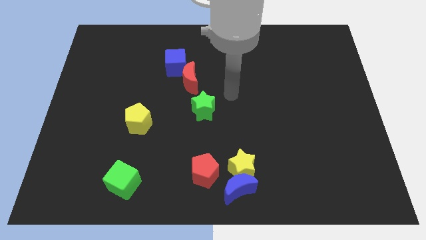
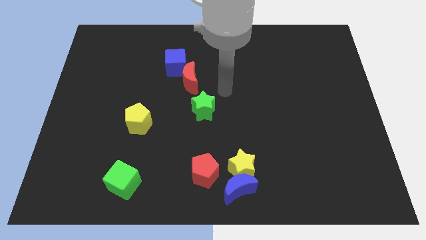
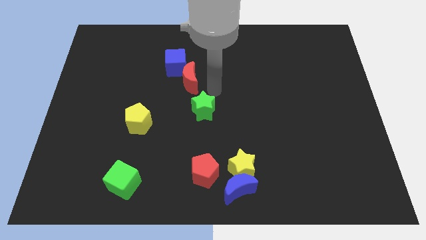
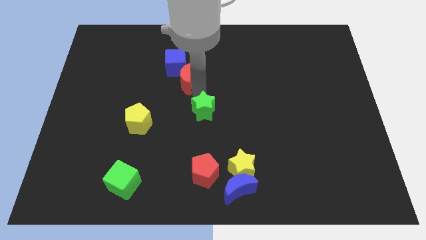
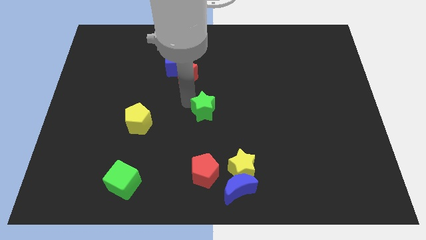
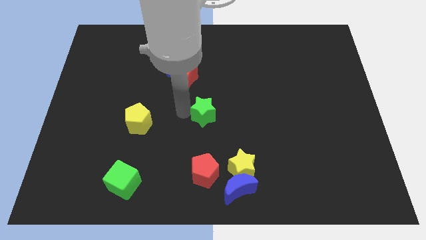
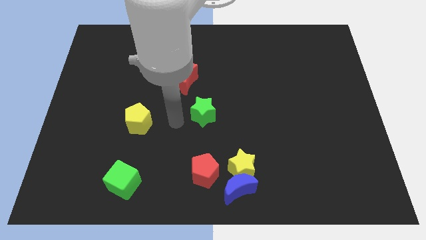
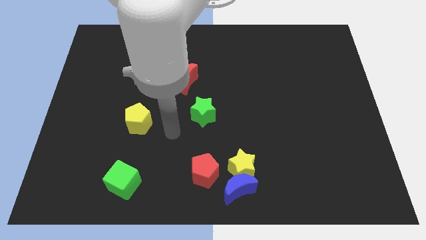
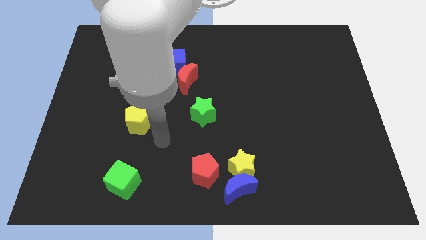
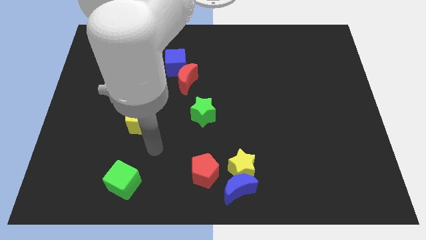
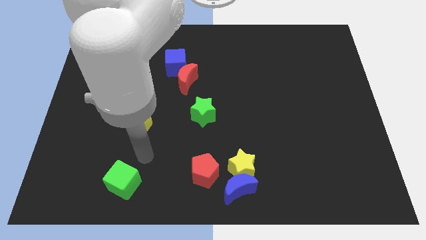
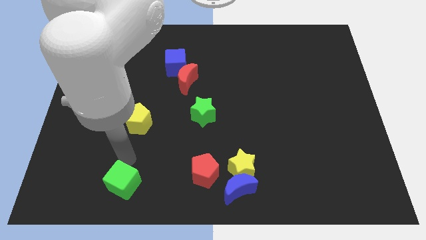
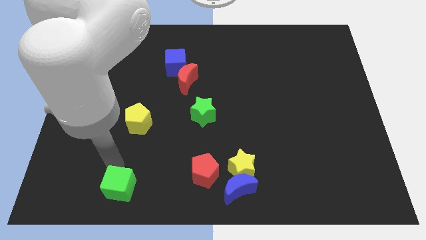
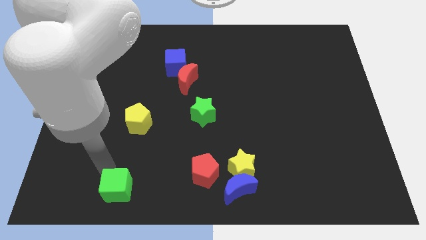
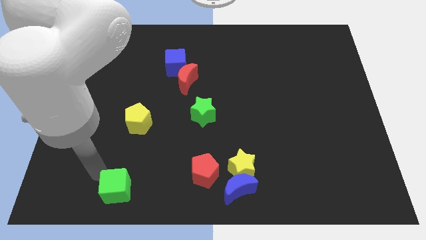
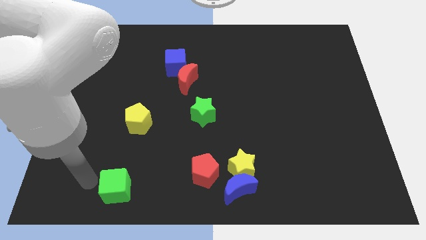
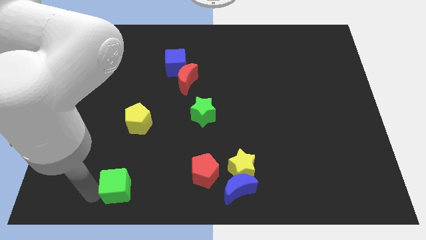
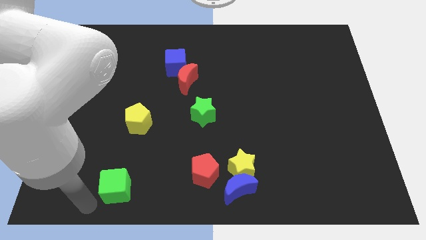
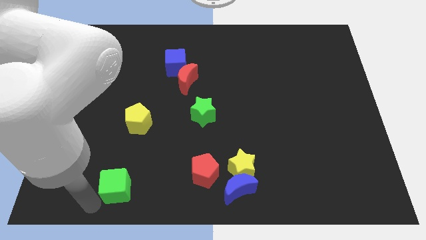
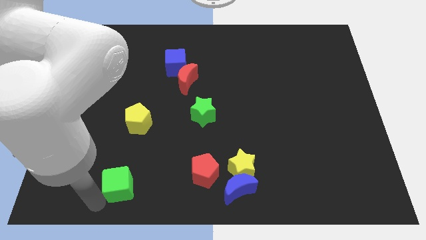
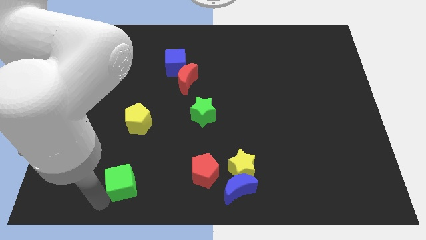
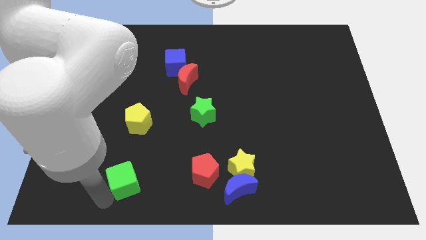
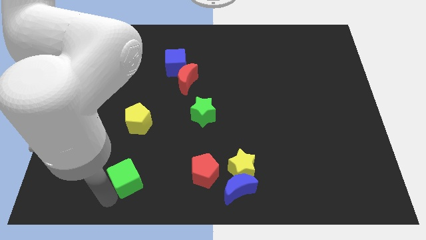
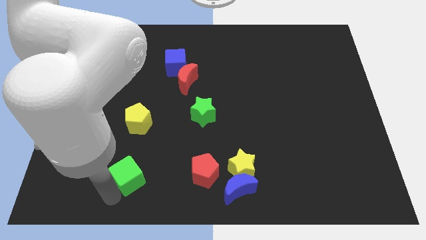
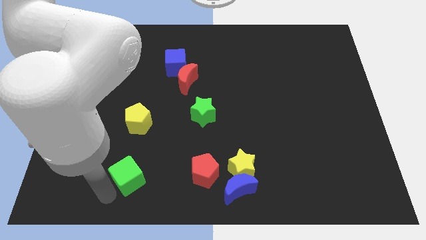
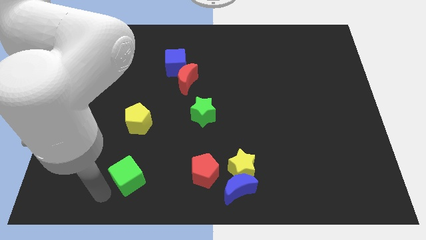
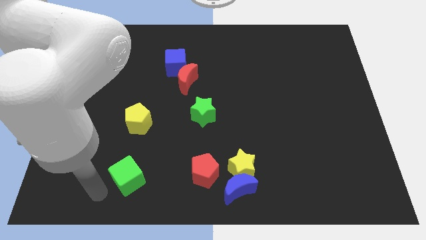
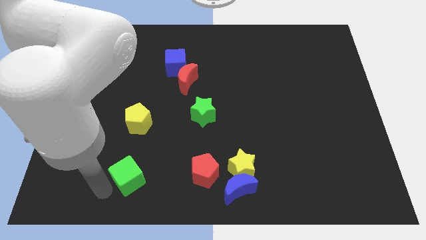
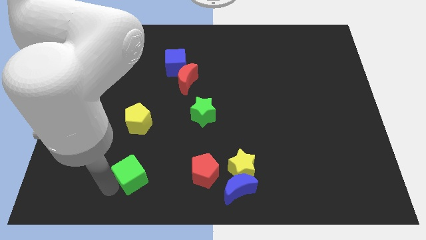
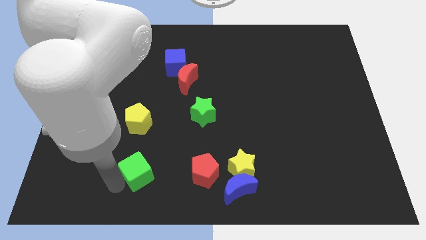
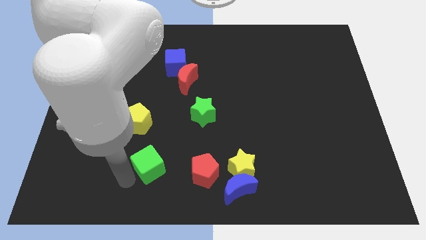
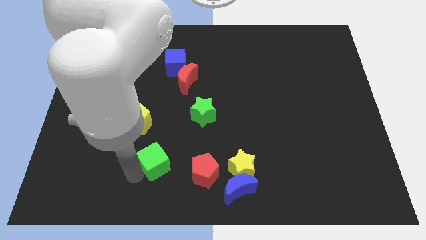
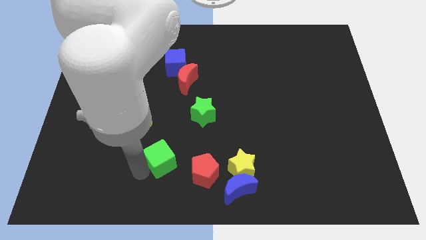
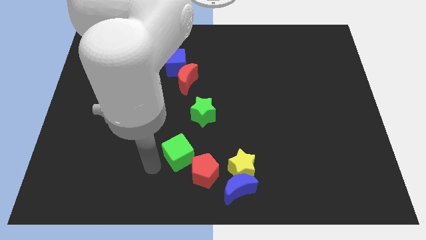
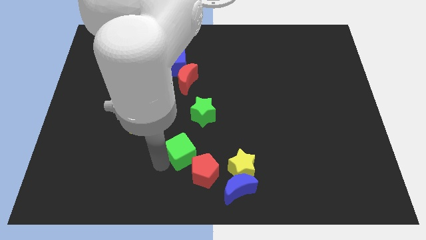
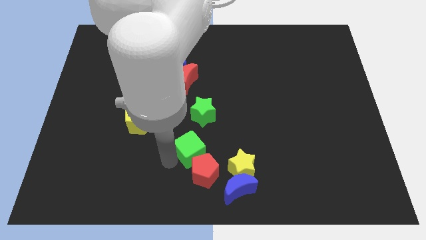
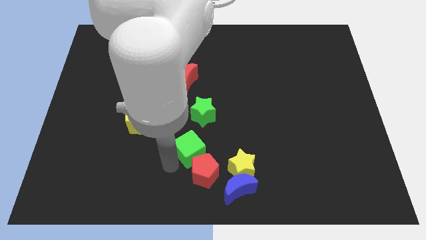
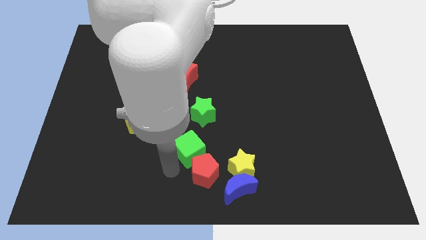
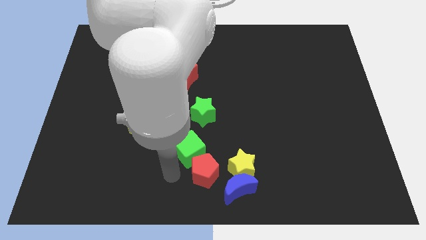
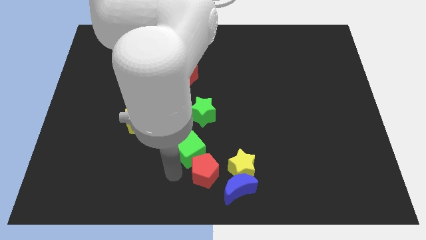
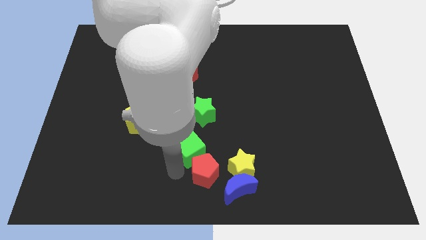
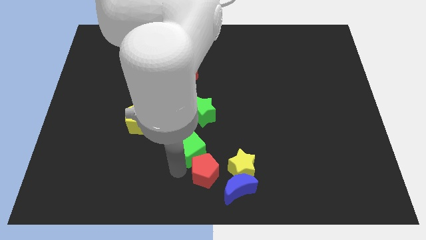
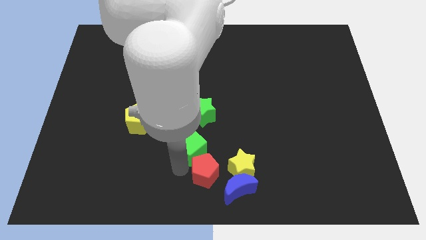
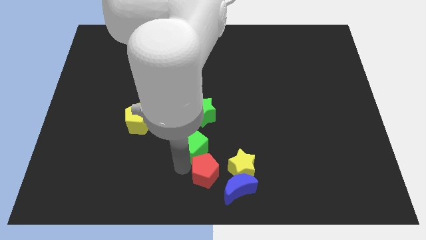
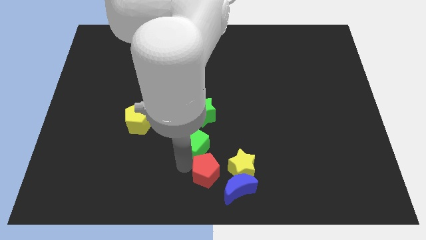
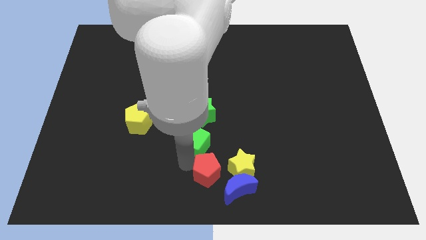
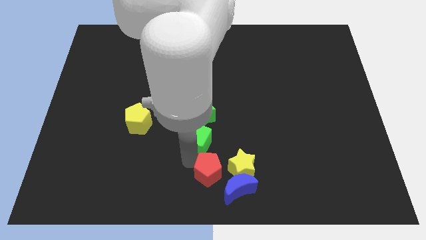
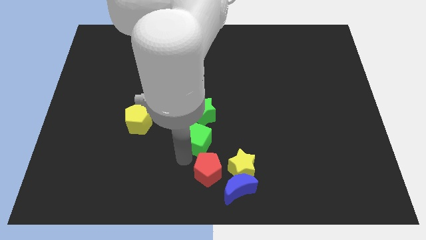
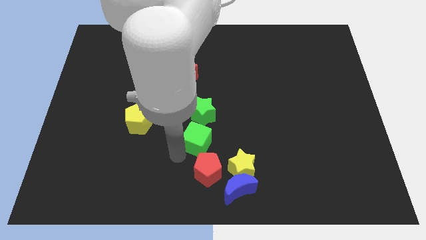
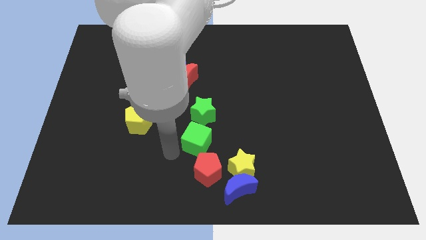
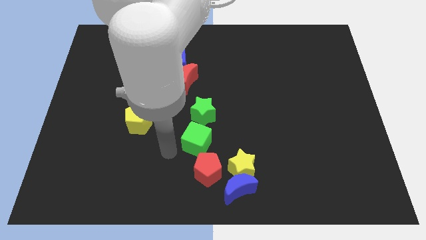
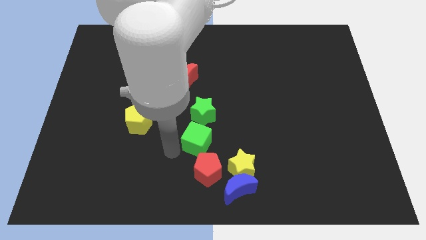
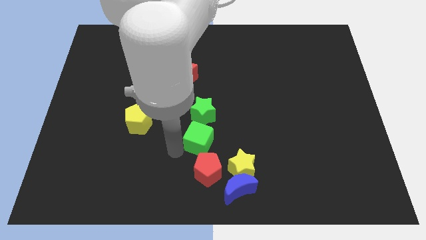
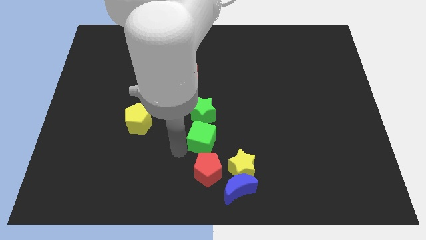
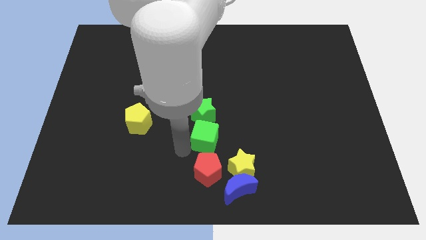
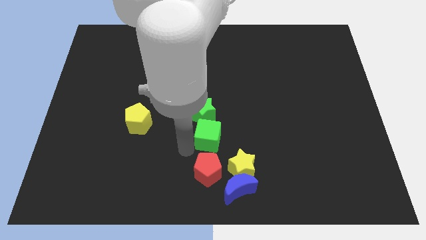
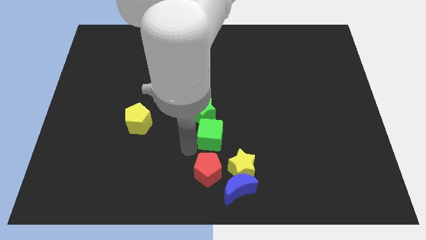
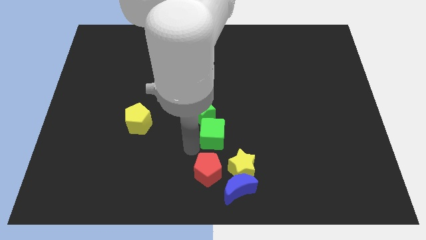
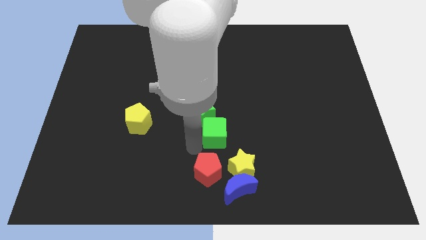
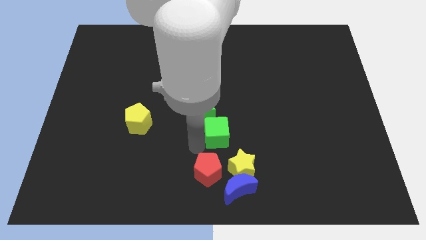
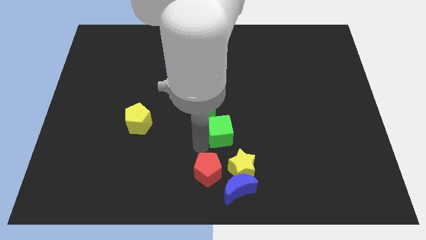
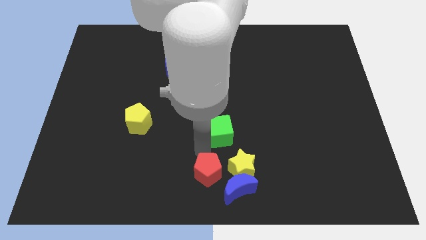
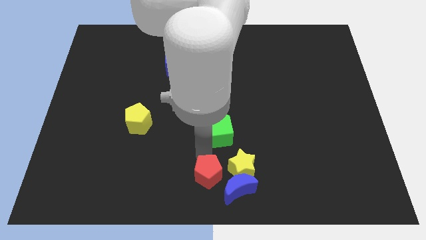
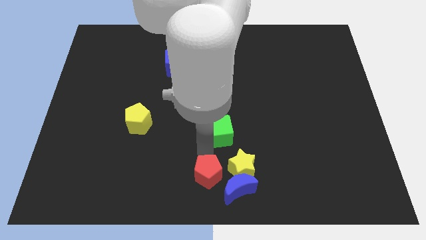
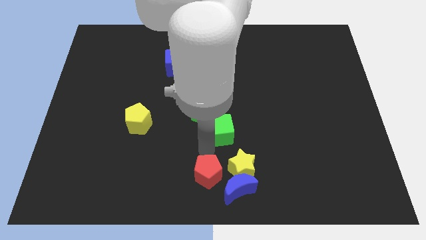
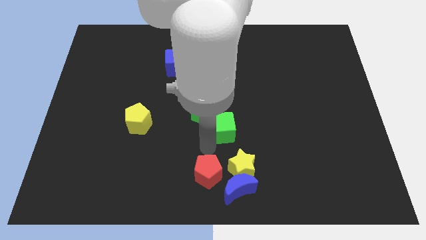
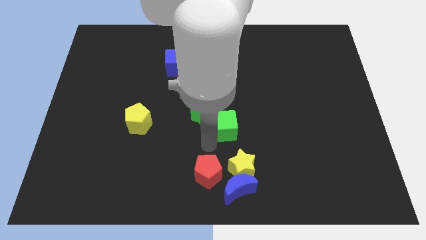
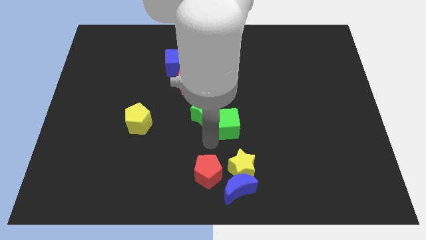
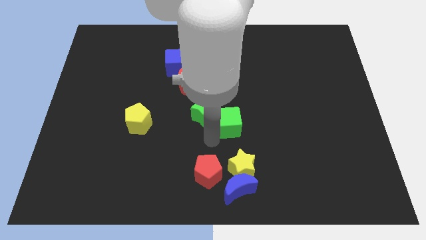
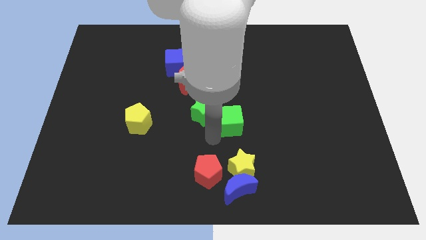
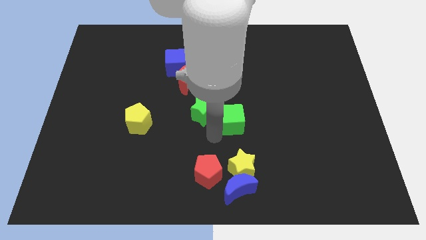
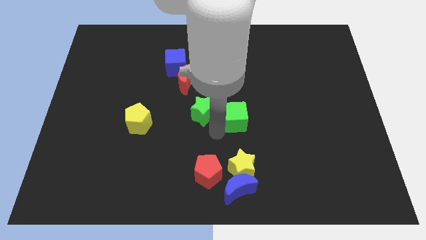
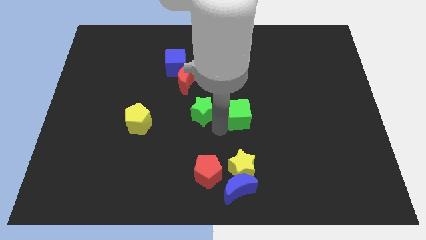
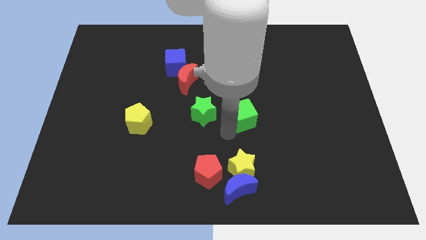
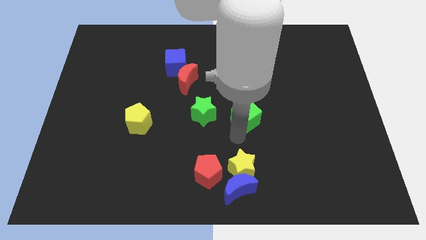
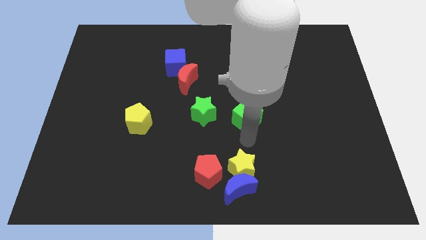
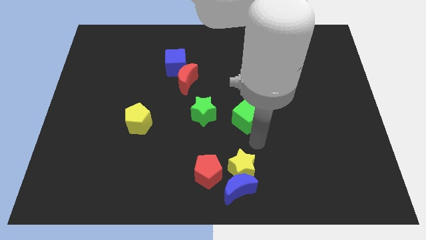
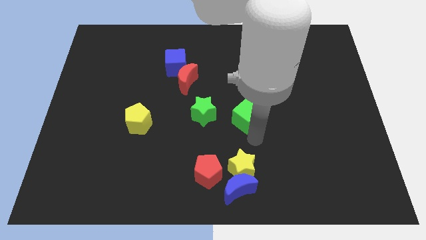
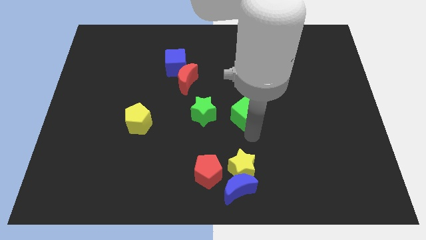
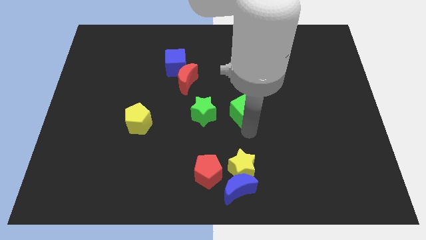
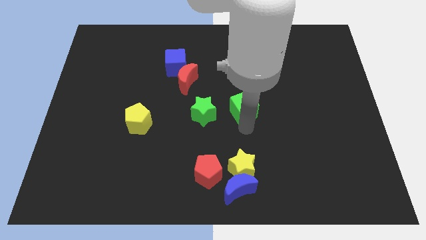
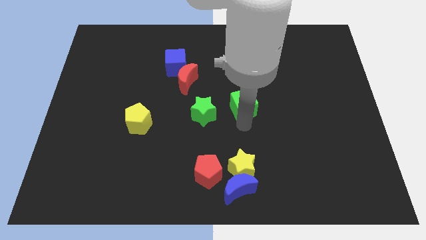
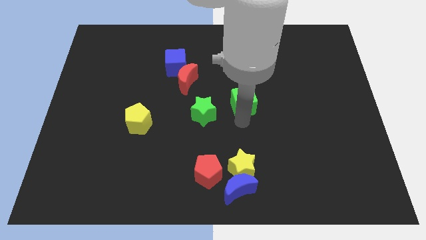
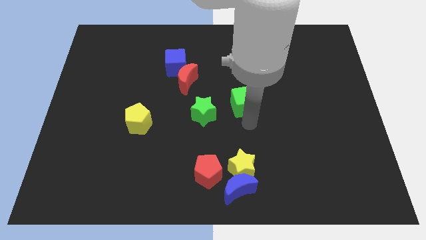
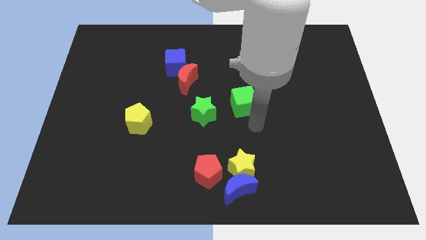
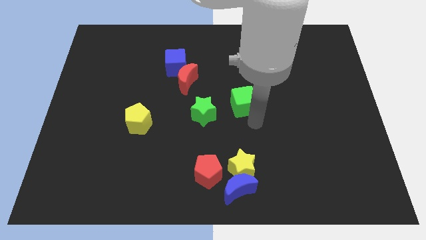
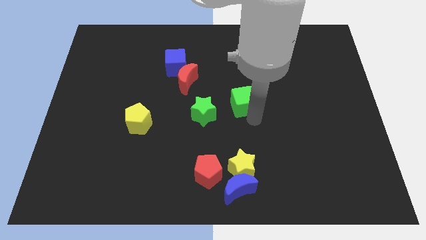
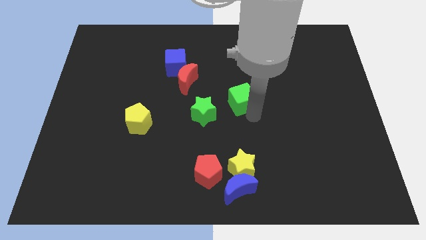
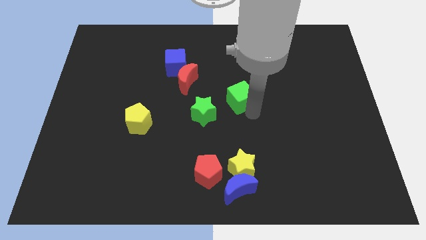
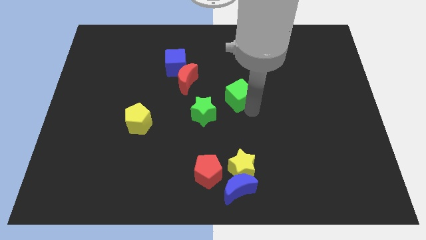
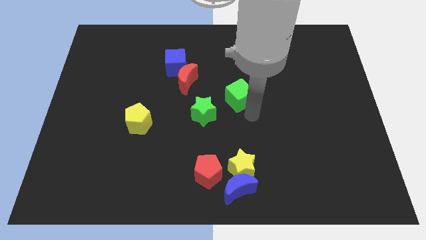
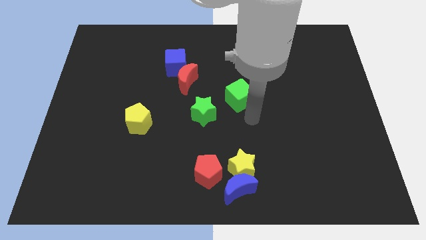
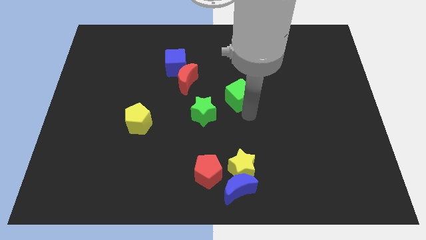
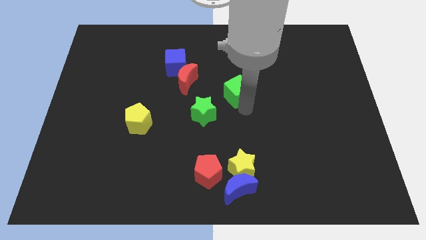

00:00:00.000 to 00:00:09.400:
put the green cube right of the red moon
